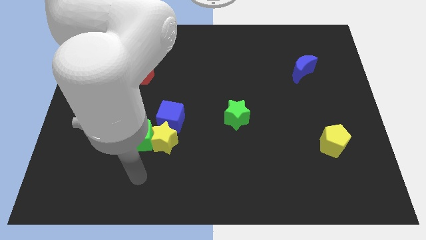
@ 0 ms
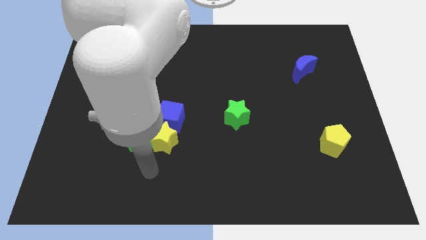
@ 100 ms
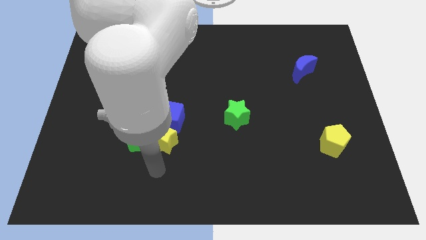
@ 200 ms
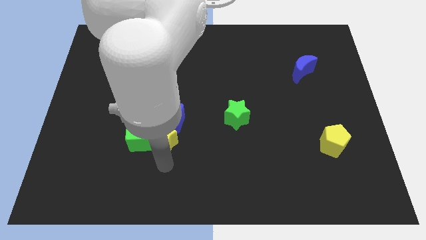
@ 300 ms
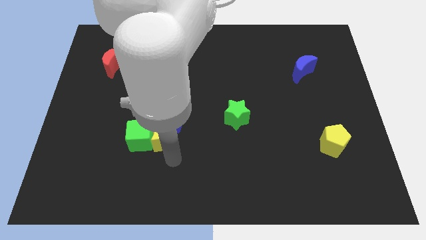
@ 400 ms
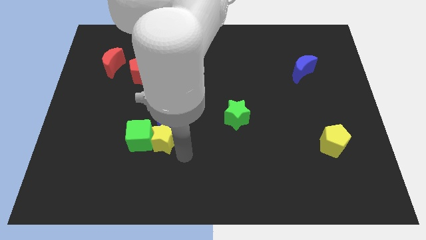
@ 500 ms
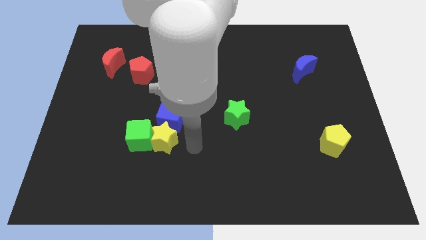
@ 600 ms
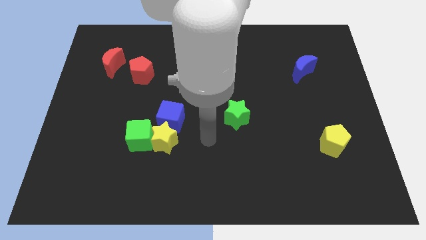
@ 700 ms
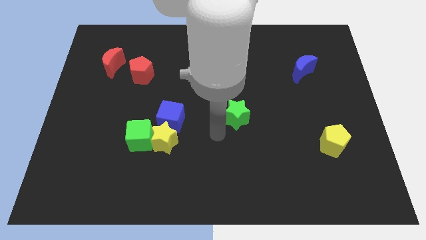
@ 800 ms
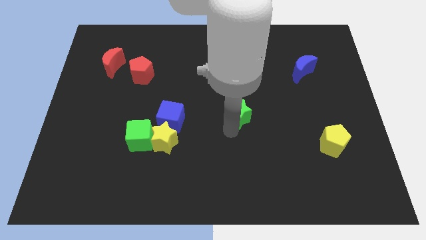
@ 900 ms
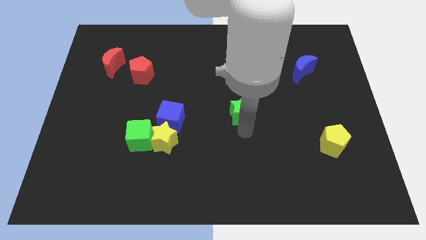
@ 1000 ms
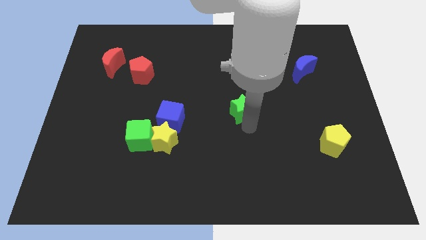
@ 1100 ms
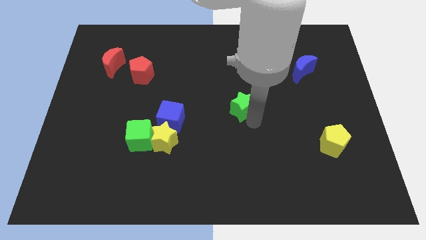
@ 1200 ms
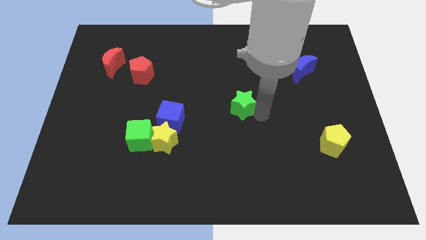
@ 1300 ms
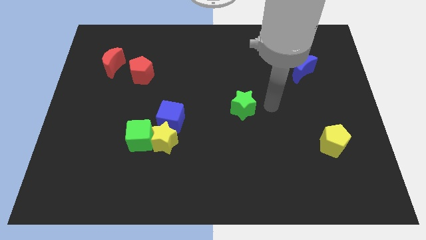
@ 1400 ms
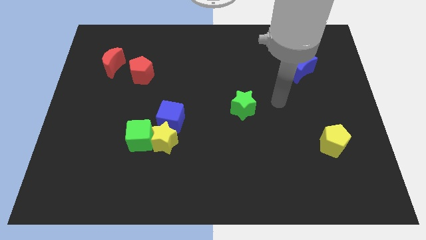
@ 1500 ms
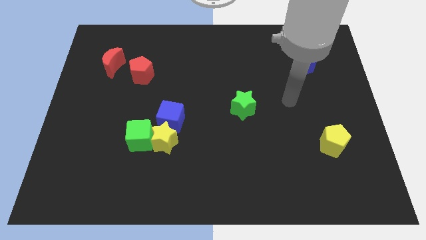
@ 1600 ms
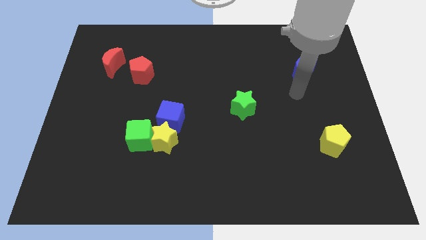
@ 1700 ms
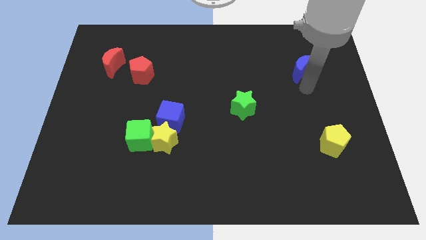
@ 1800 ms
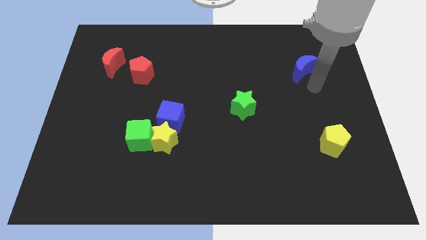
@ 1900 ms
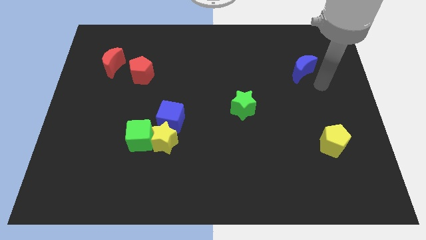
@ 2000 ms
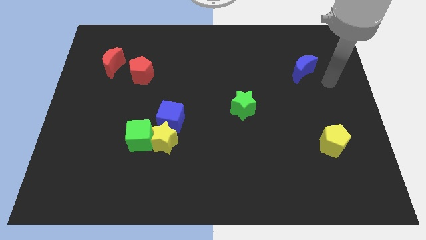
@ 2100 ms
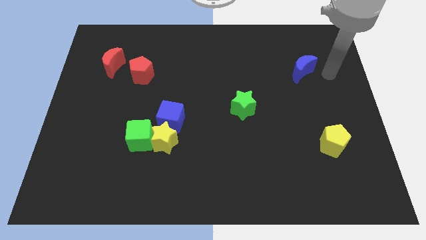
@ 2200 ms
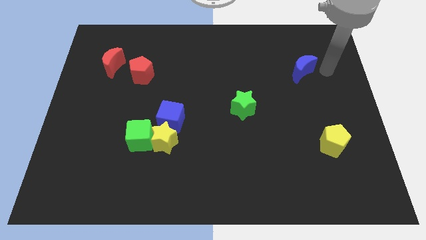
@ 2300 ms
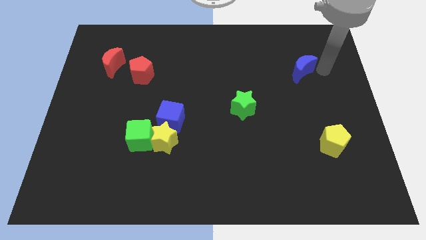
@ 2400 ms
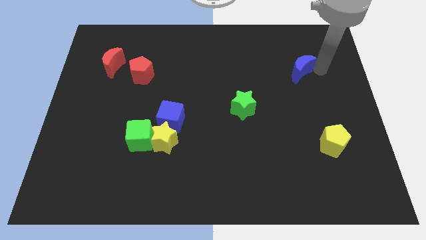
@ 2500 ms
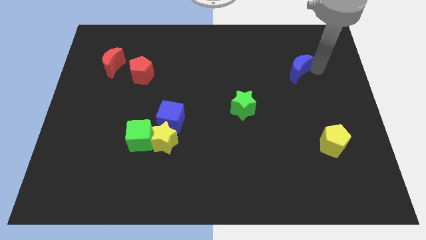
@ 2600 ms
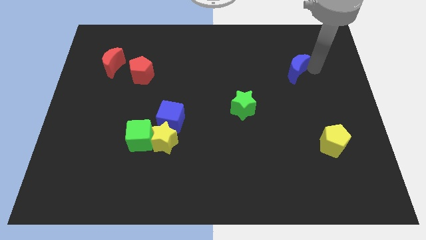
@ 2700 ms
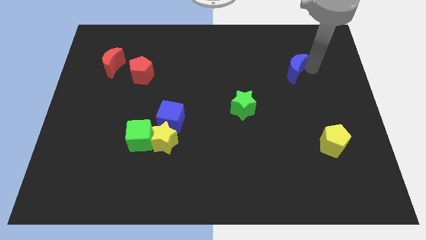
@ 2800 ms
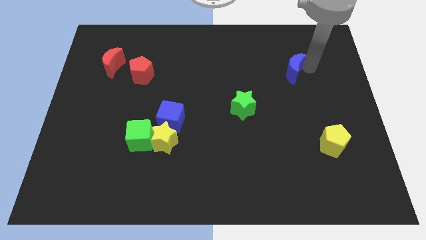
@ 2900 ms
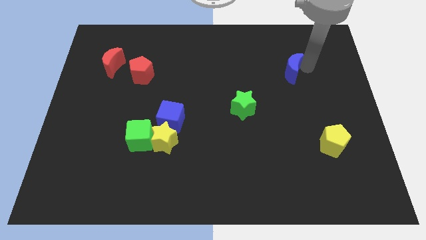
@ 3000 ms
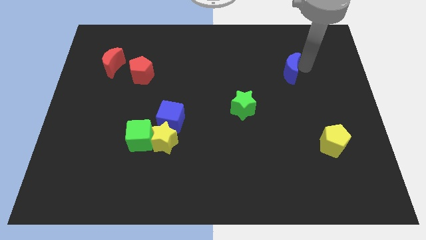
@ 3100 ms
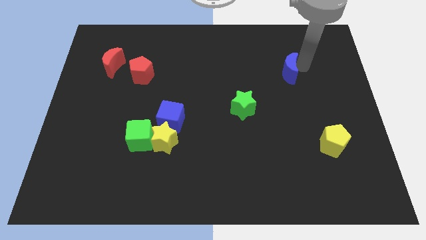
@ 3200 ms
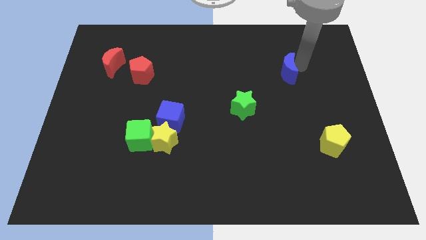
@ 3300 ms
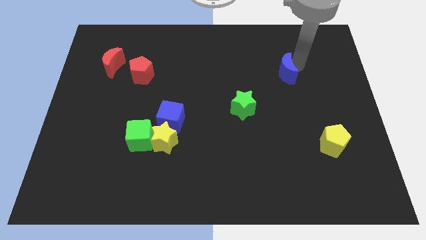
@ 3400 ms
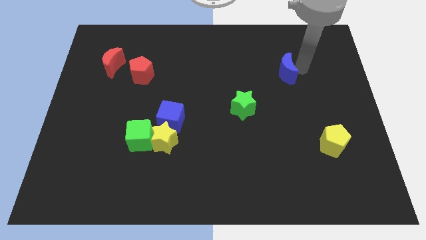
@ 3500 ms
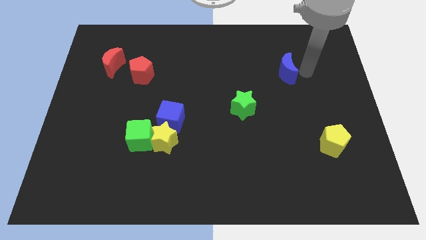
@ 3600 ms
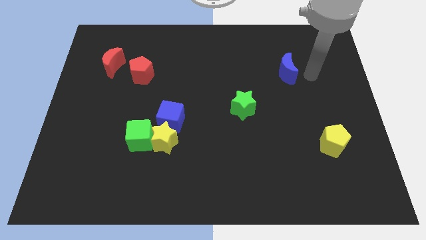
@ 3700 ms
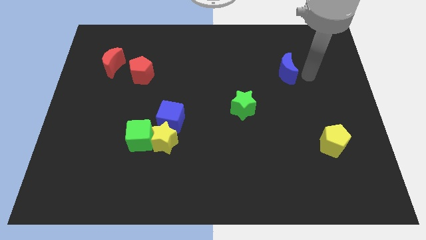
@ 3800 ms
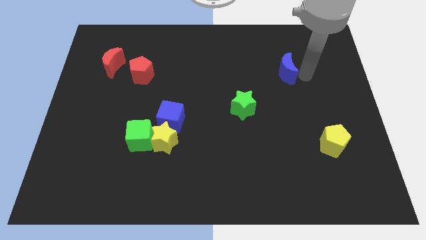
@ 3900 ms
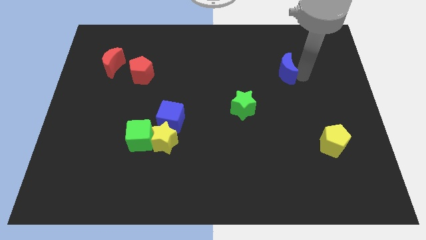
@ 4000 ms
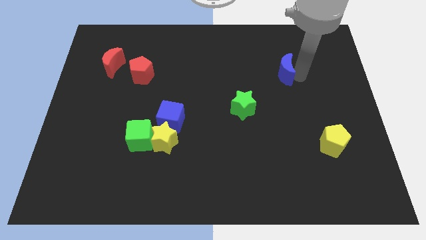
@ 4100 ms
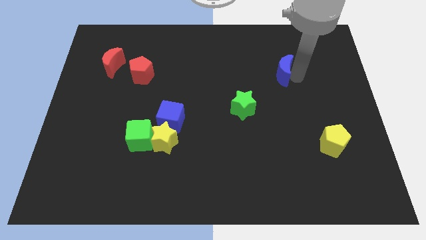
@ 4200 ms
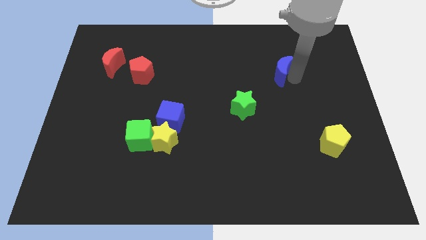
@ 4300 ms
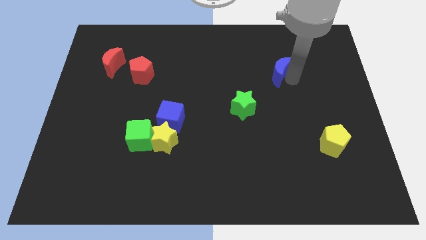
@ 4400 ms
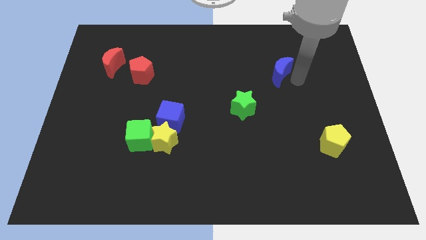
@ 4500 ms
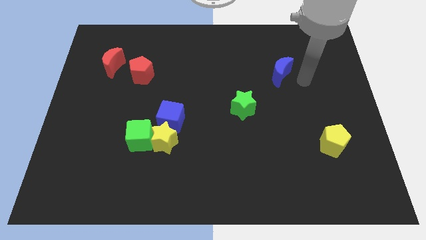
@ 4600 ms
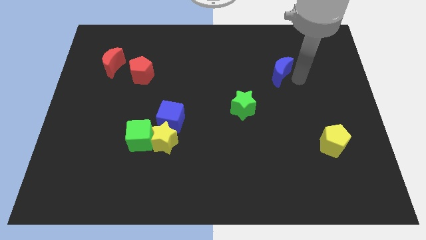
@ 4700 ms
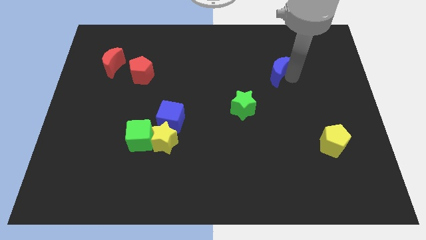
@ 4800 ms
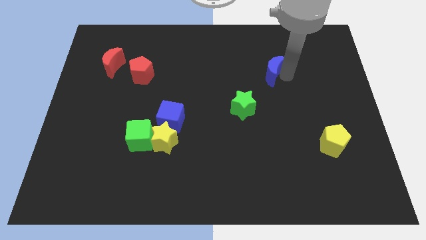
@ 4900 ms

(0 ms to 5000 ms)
slightly slide the blue moon left

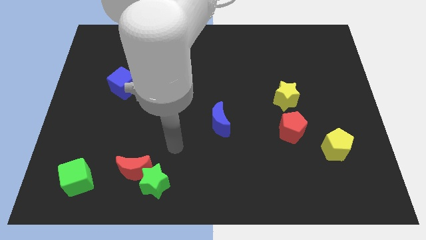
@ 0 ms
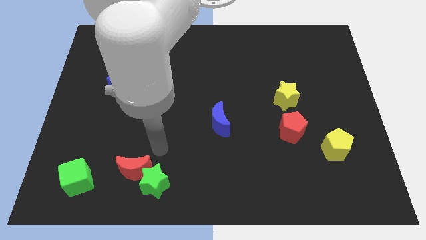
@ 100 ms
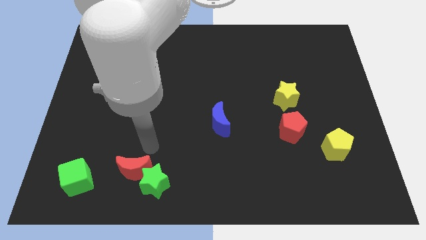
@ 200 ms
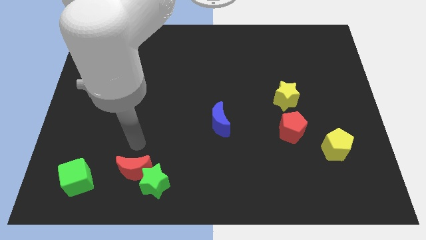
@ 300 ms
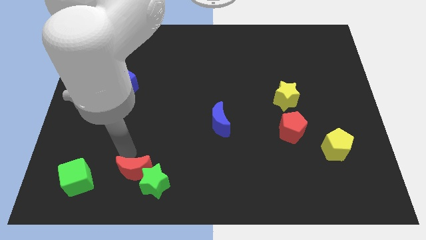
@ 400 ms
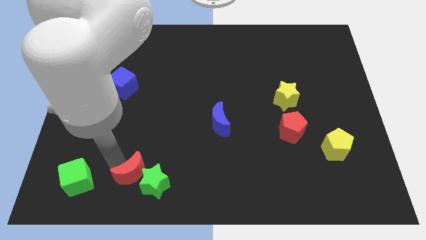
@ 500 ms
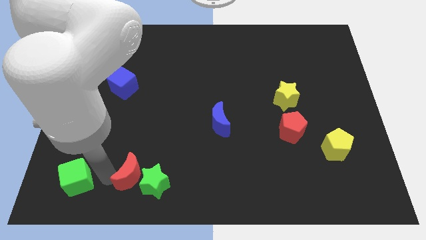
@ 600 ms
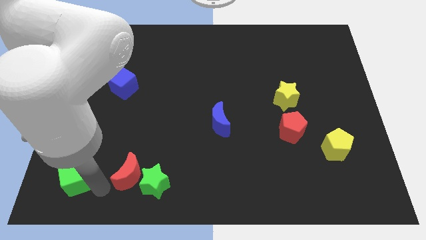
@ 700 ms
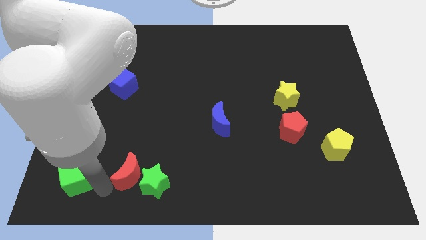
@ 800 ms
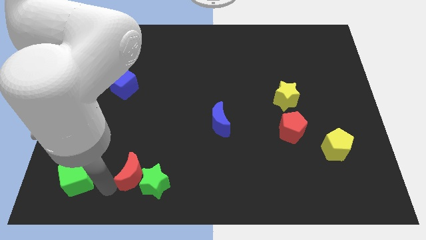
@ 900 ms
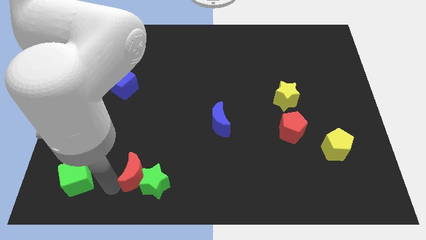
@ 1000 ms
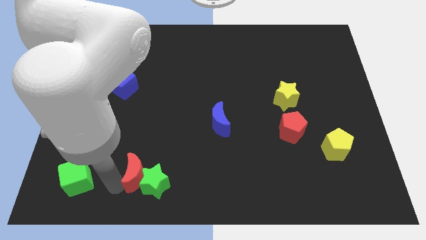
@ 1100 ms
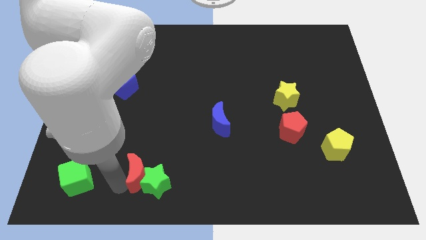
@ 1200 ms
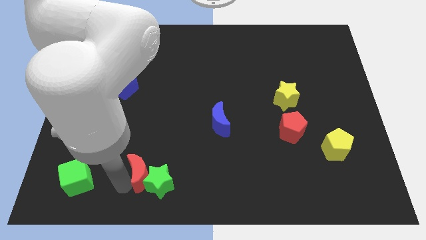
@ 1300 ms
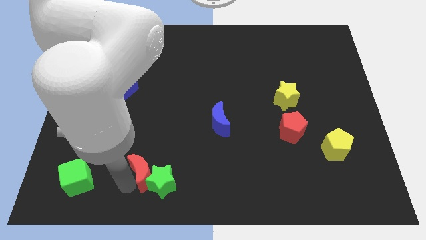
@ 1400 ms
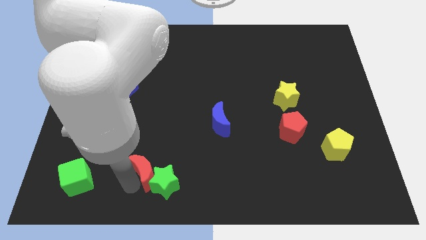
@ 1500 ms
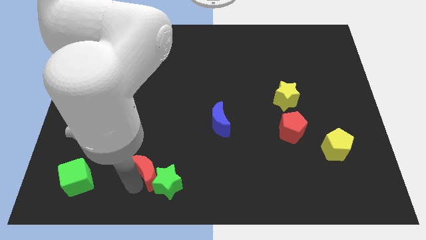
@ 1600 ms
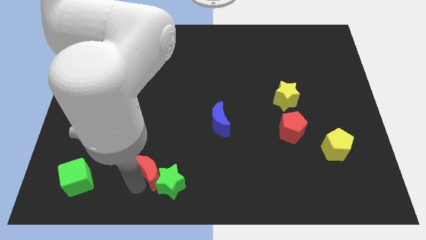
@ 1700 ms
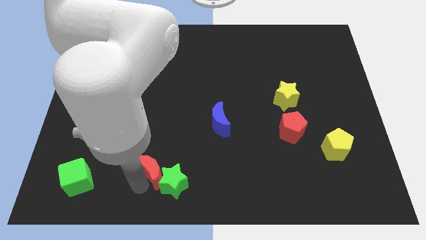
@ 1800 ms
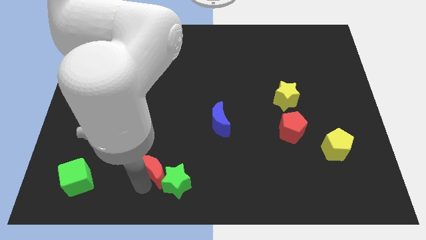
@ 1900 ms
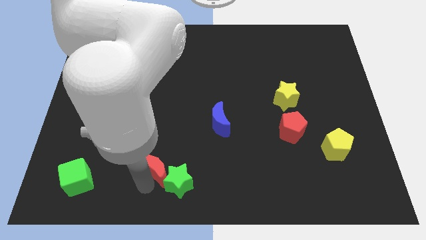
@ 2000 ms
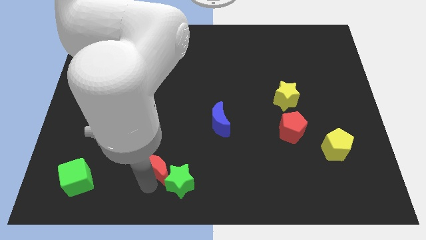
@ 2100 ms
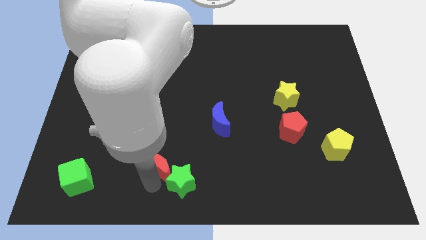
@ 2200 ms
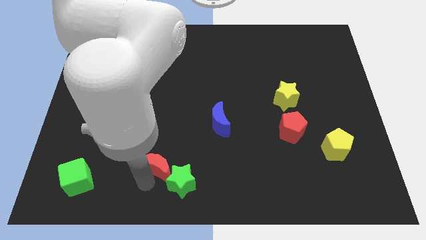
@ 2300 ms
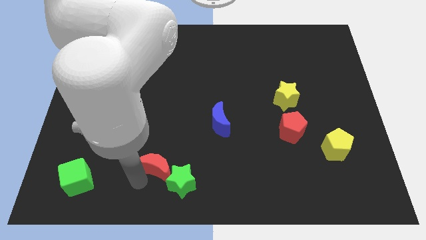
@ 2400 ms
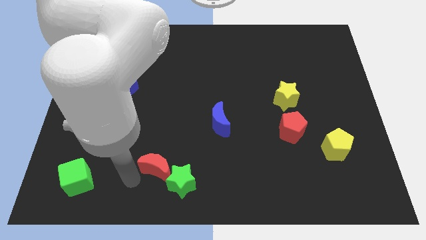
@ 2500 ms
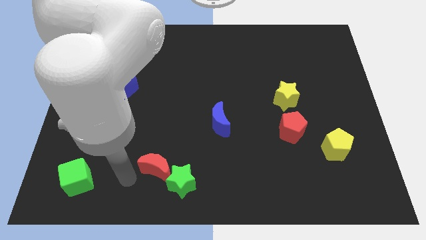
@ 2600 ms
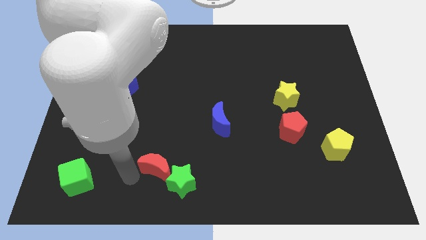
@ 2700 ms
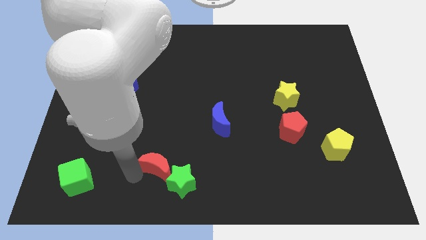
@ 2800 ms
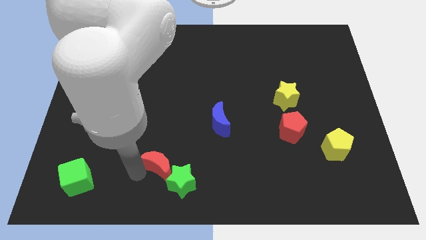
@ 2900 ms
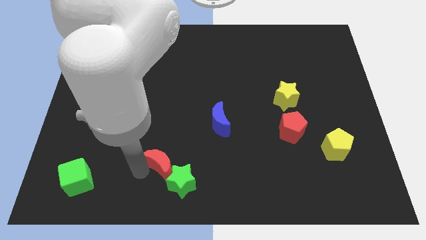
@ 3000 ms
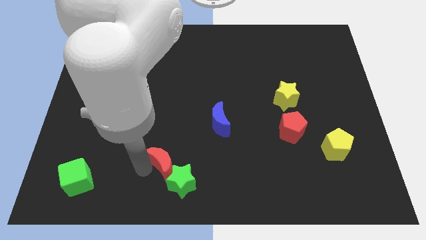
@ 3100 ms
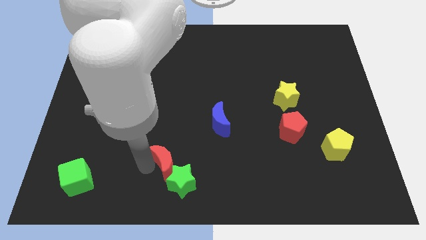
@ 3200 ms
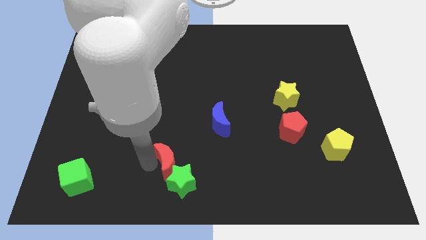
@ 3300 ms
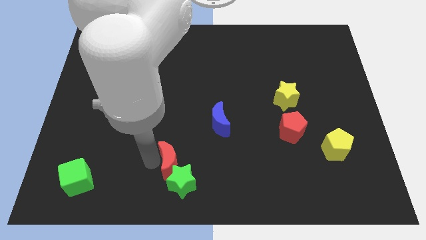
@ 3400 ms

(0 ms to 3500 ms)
slightly slide the red moon right
